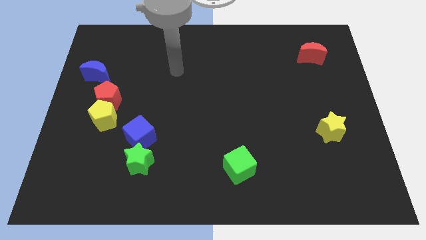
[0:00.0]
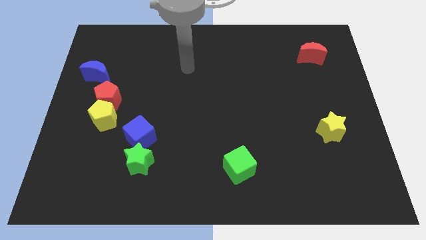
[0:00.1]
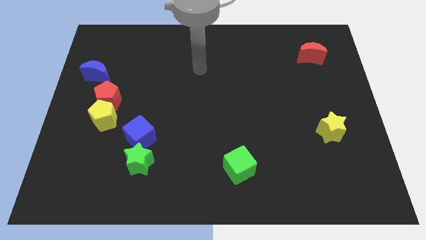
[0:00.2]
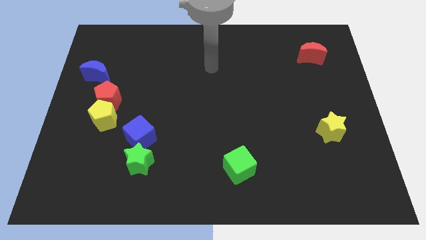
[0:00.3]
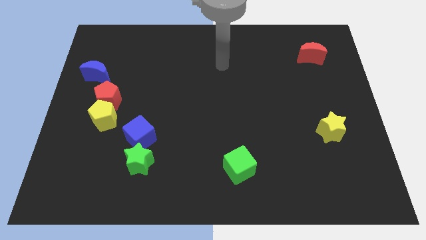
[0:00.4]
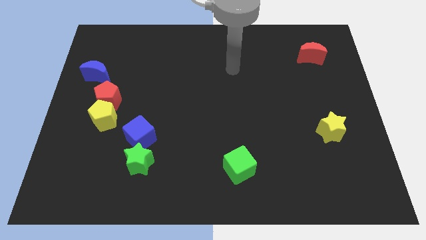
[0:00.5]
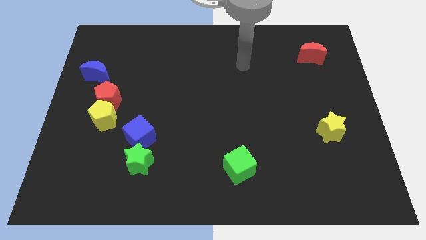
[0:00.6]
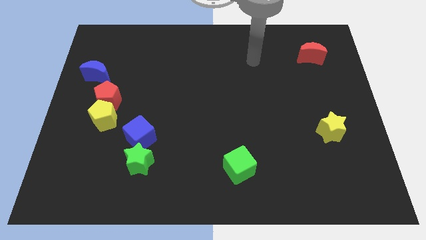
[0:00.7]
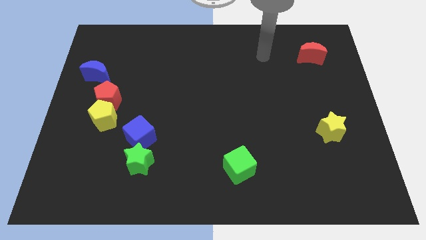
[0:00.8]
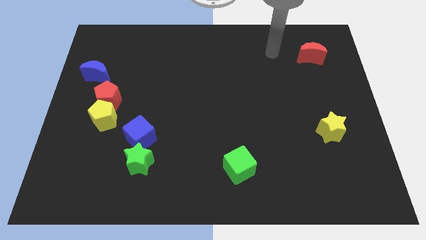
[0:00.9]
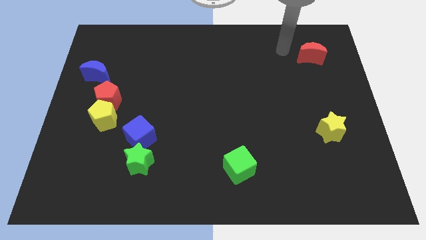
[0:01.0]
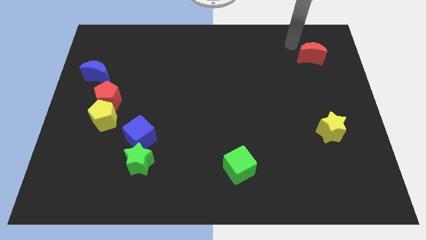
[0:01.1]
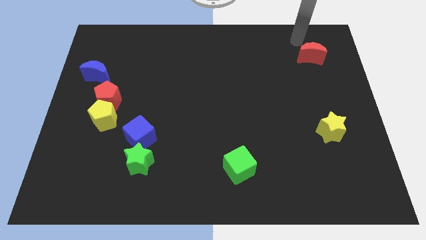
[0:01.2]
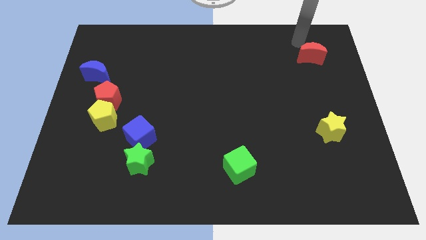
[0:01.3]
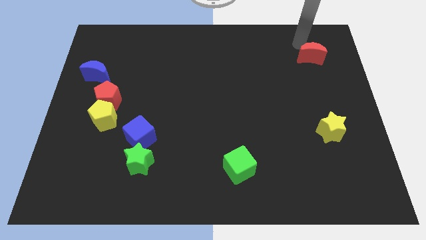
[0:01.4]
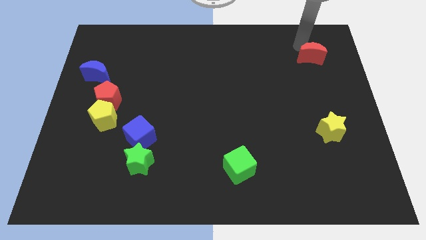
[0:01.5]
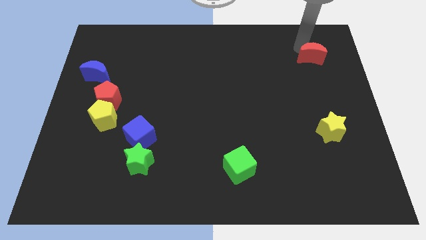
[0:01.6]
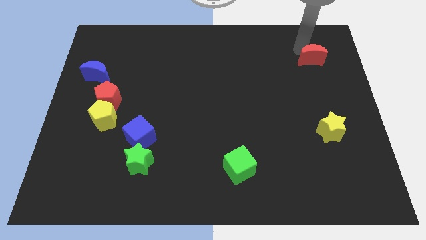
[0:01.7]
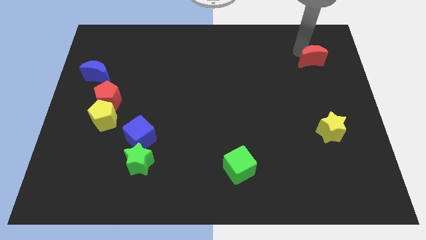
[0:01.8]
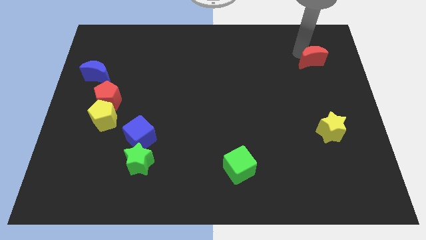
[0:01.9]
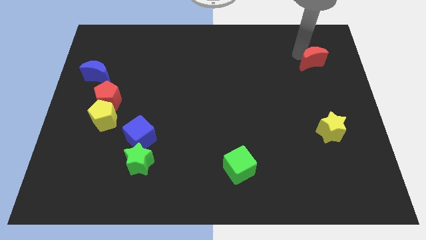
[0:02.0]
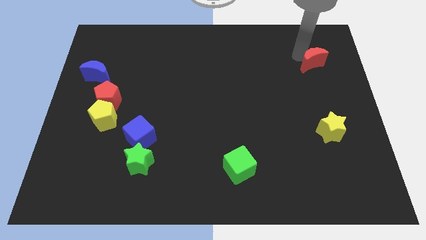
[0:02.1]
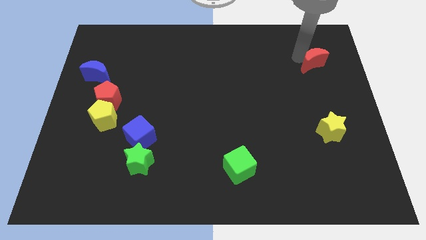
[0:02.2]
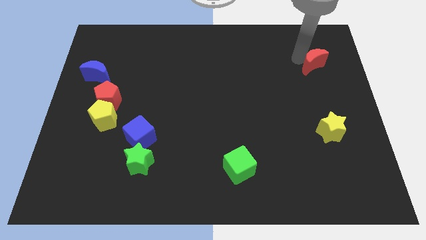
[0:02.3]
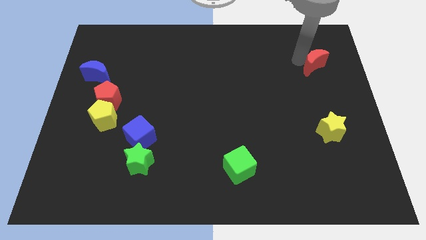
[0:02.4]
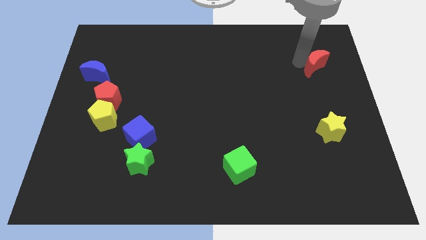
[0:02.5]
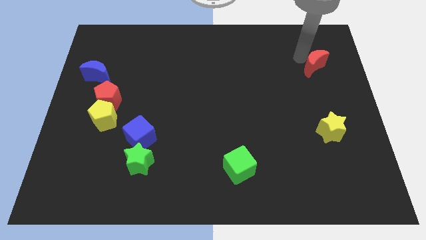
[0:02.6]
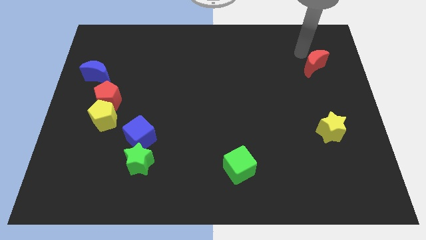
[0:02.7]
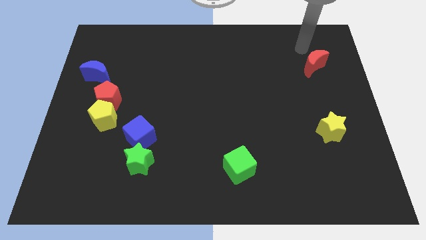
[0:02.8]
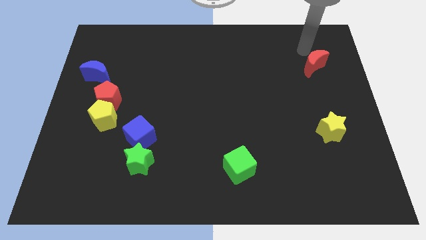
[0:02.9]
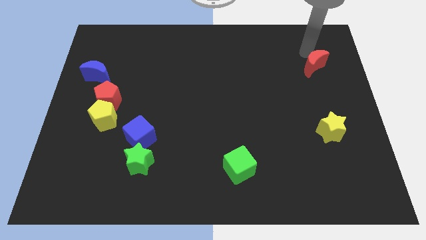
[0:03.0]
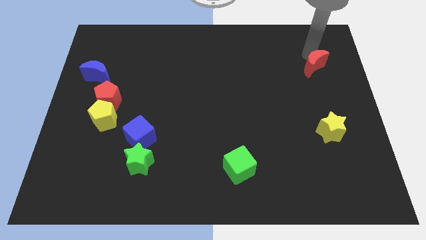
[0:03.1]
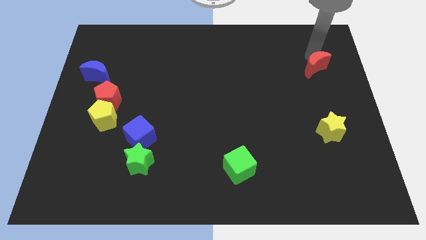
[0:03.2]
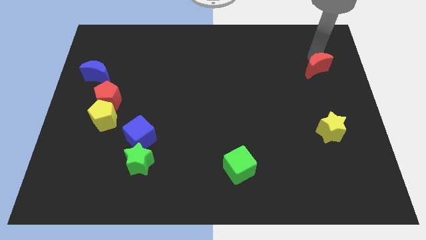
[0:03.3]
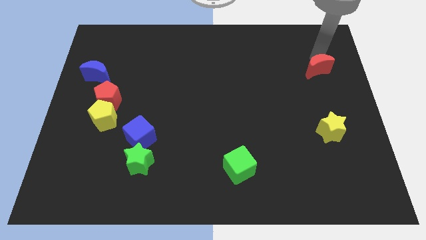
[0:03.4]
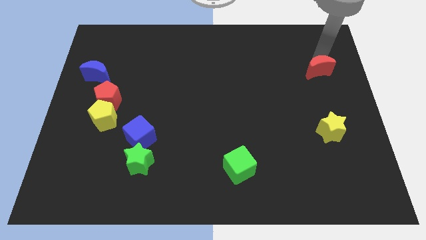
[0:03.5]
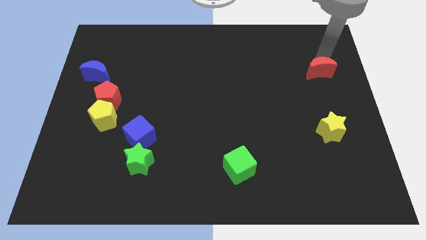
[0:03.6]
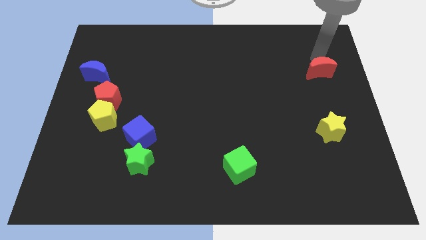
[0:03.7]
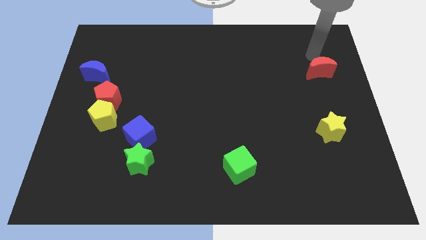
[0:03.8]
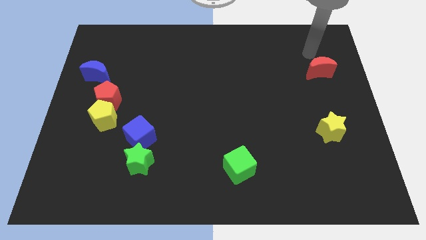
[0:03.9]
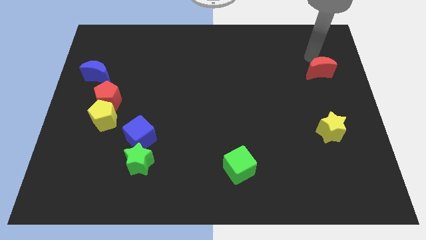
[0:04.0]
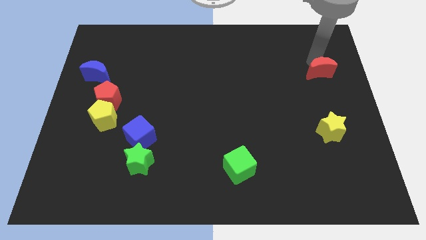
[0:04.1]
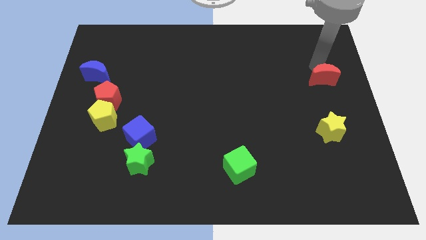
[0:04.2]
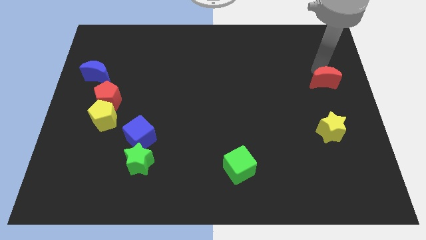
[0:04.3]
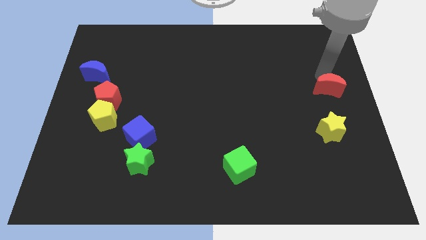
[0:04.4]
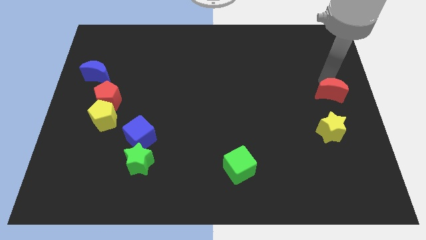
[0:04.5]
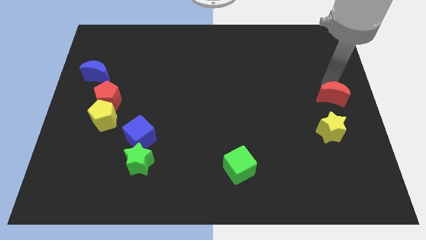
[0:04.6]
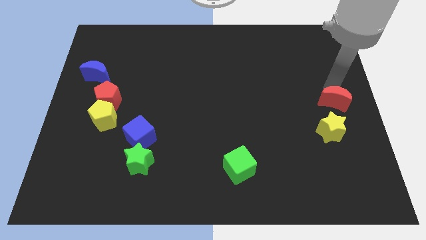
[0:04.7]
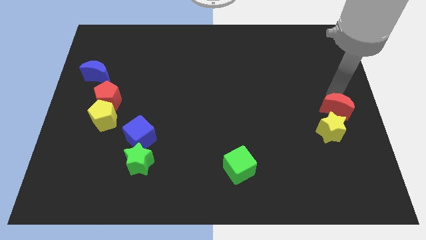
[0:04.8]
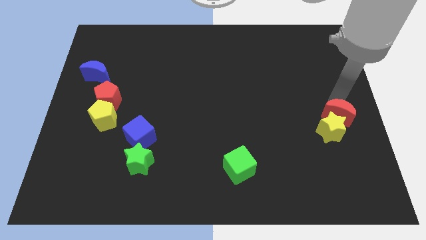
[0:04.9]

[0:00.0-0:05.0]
move the red moon close to the yellow star

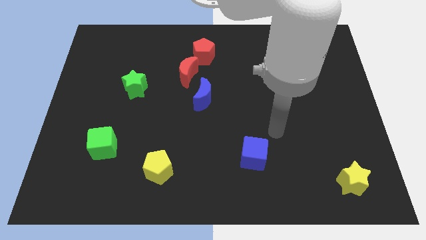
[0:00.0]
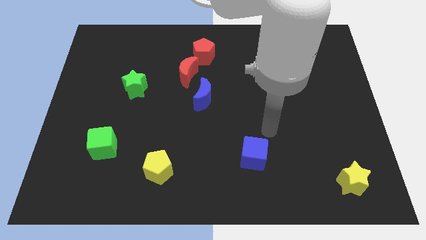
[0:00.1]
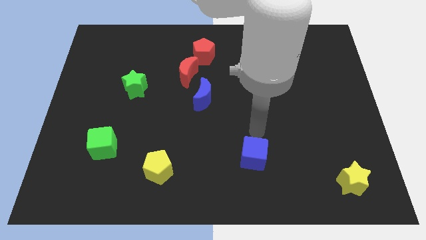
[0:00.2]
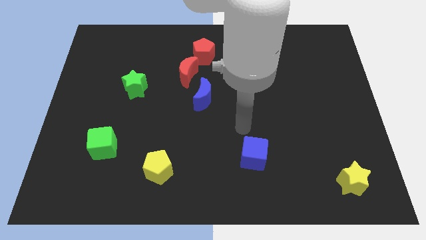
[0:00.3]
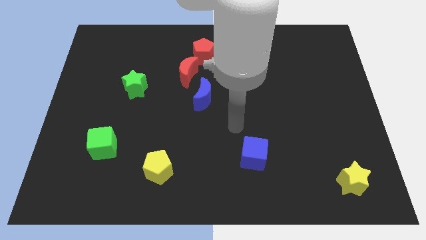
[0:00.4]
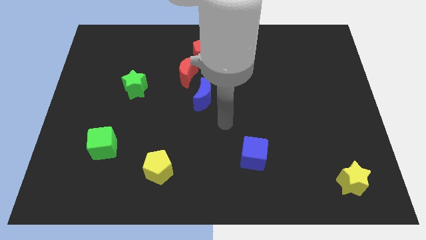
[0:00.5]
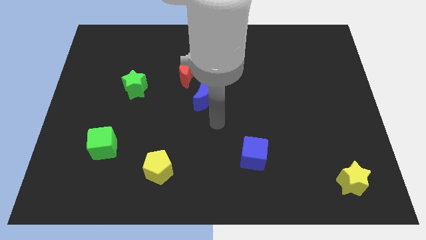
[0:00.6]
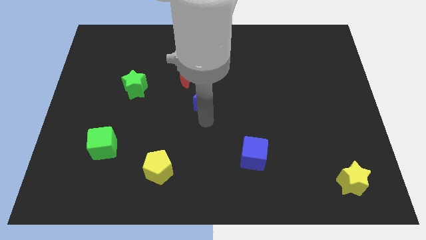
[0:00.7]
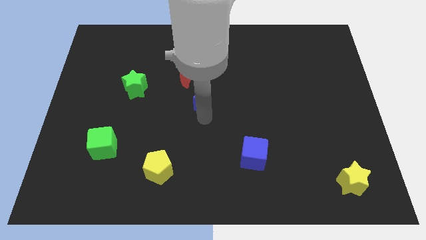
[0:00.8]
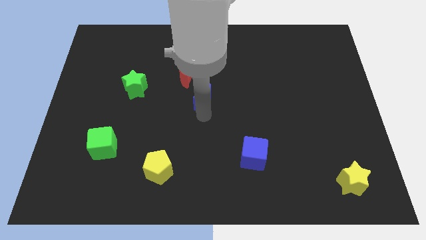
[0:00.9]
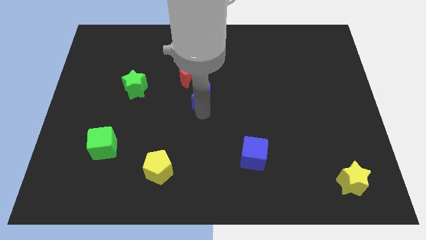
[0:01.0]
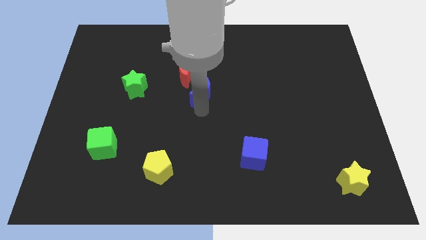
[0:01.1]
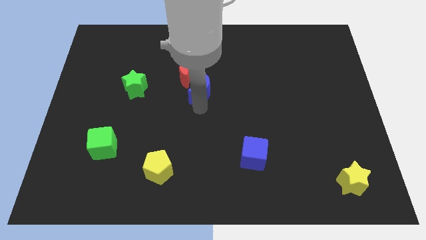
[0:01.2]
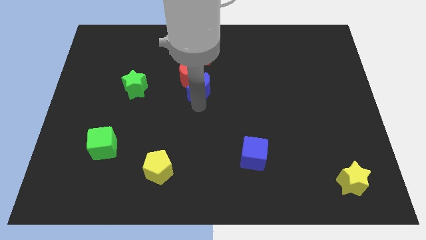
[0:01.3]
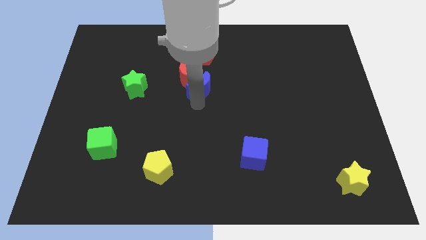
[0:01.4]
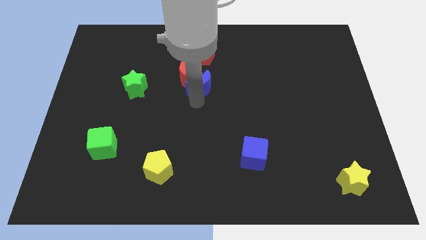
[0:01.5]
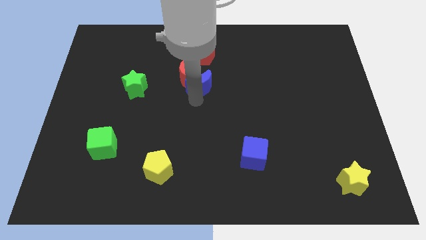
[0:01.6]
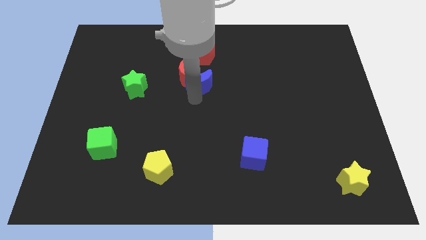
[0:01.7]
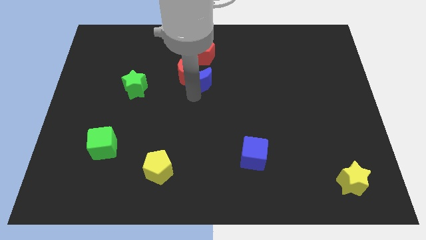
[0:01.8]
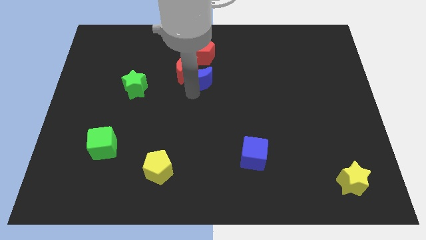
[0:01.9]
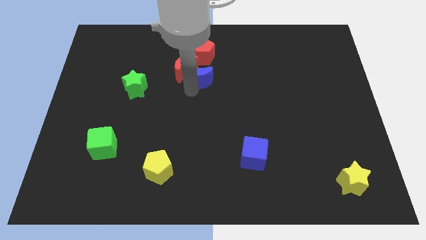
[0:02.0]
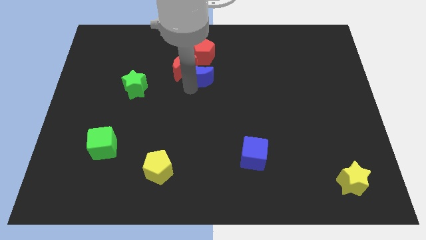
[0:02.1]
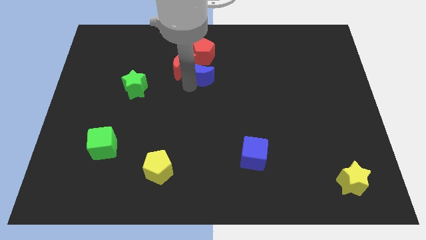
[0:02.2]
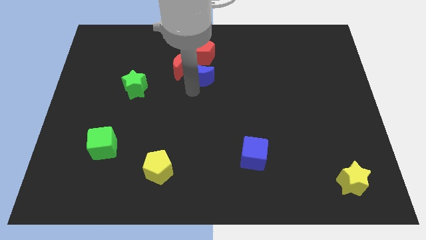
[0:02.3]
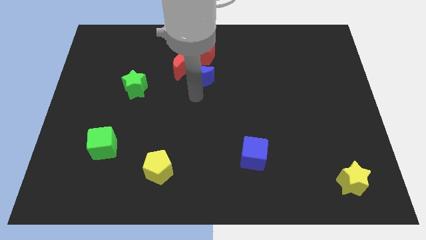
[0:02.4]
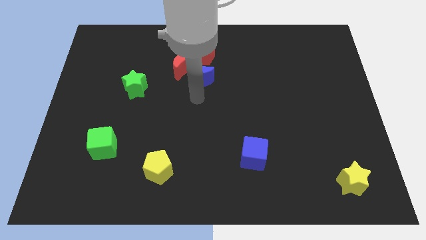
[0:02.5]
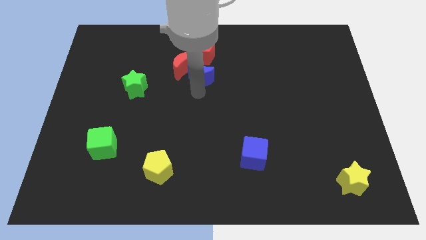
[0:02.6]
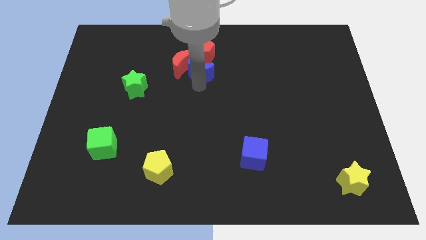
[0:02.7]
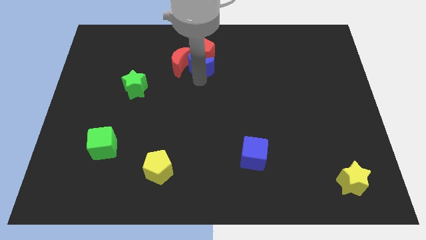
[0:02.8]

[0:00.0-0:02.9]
slide the blue moon towards the red pentagon

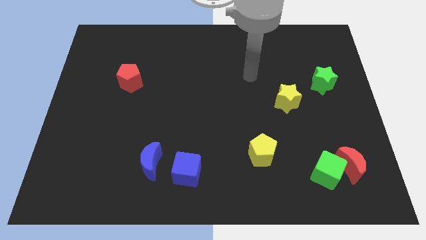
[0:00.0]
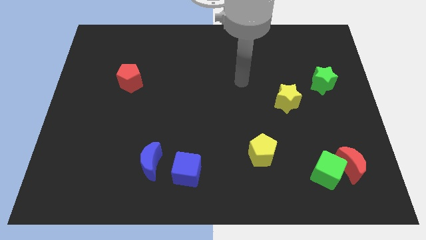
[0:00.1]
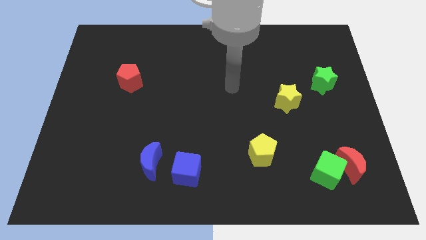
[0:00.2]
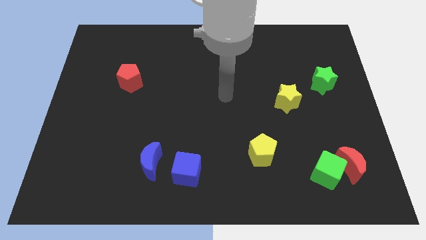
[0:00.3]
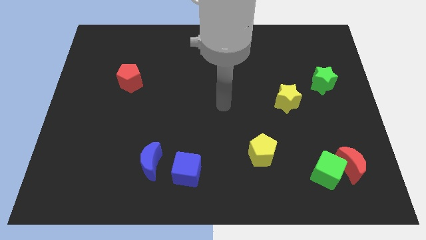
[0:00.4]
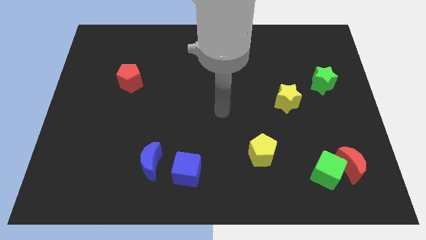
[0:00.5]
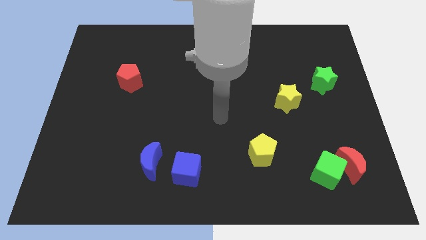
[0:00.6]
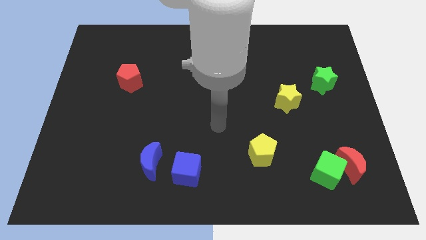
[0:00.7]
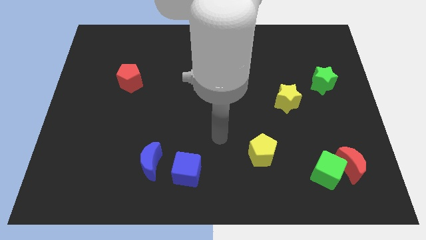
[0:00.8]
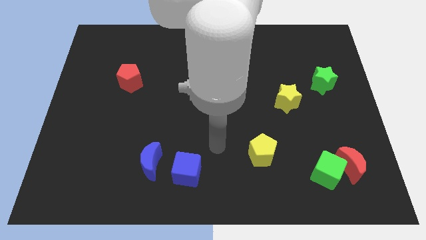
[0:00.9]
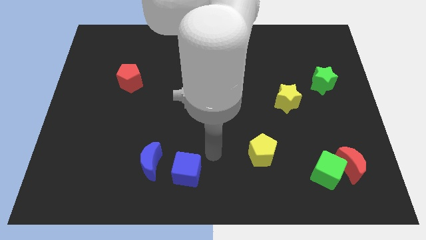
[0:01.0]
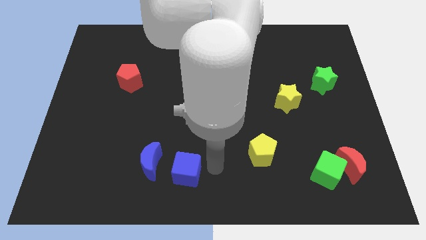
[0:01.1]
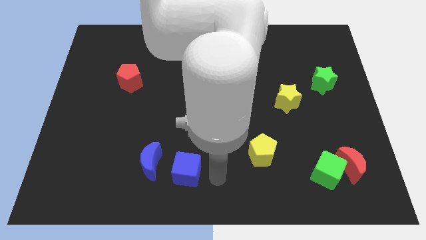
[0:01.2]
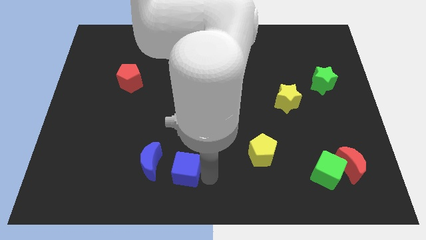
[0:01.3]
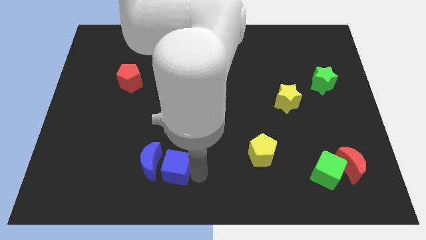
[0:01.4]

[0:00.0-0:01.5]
push the blue cube towards the blue moon
